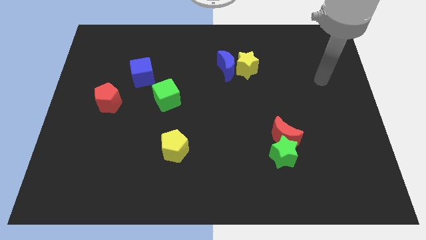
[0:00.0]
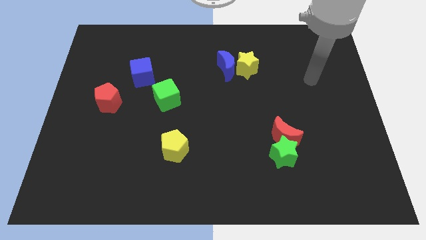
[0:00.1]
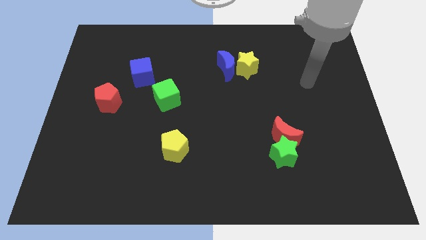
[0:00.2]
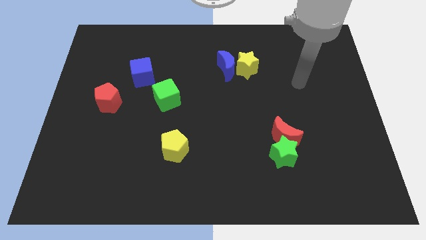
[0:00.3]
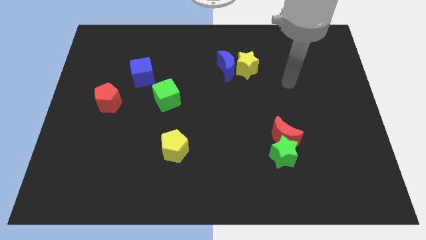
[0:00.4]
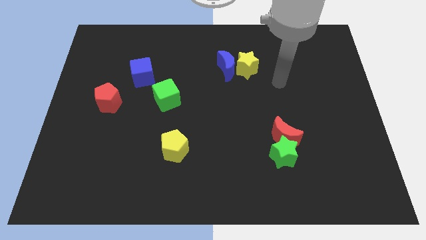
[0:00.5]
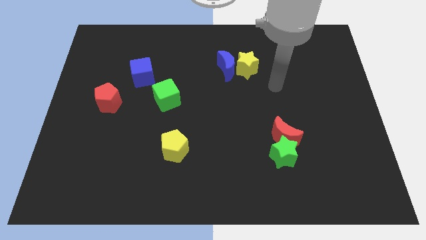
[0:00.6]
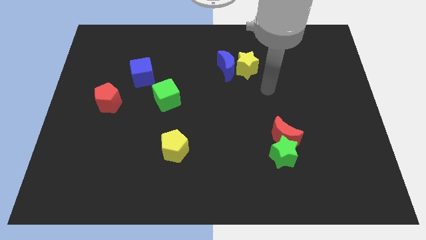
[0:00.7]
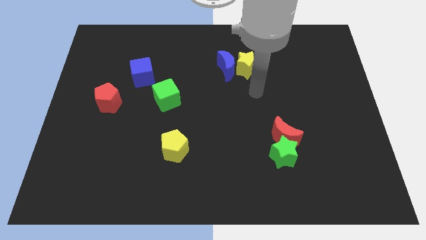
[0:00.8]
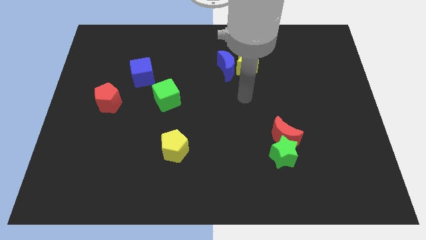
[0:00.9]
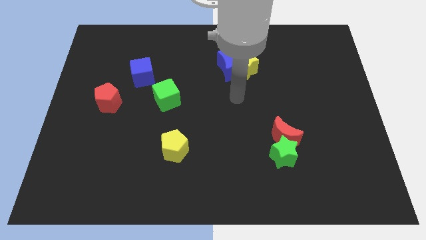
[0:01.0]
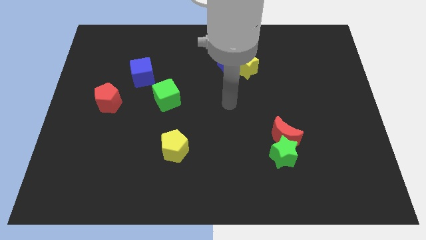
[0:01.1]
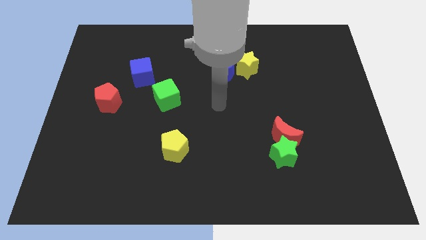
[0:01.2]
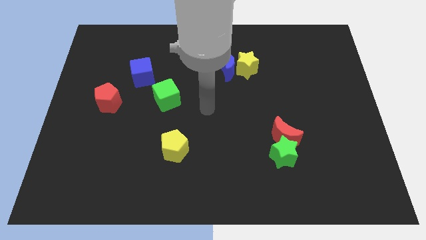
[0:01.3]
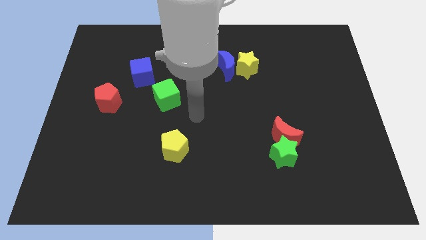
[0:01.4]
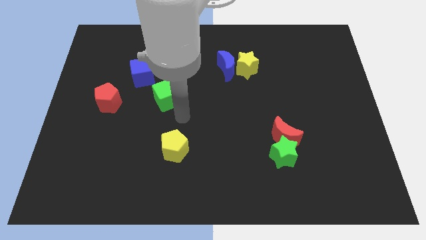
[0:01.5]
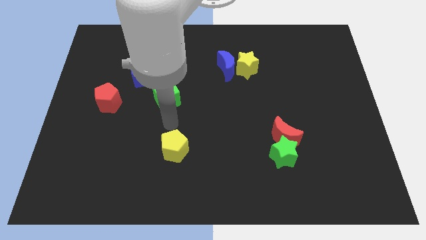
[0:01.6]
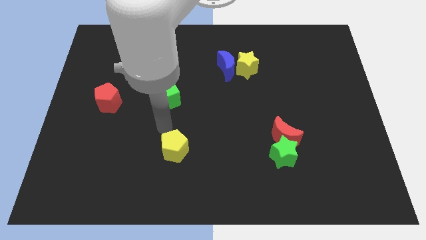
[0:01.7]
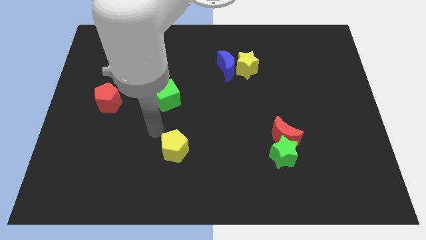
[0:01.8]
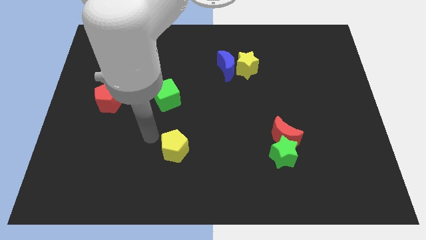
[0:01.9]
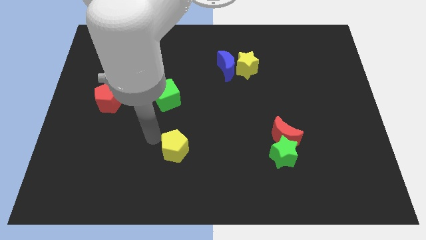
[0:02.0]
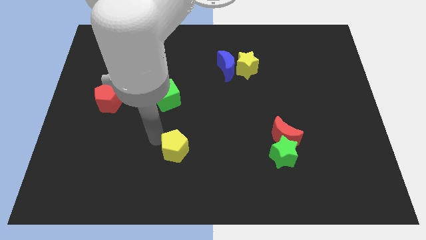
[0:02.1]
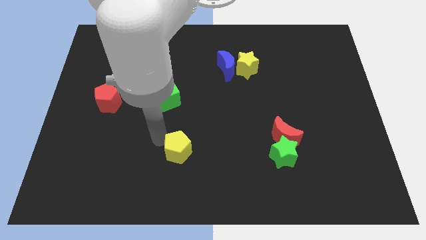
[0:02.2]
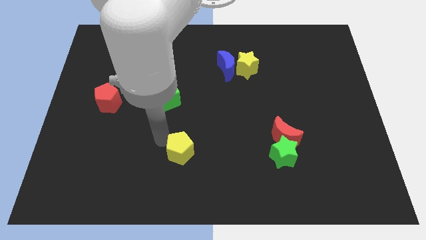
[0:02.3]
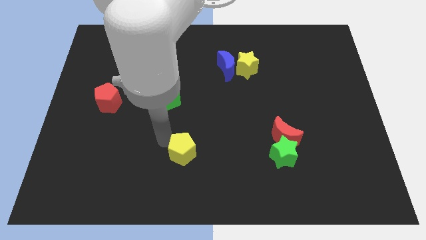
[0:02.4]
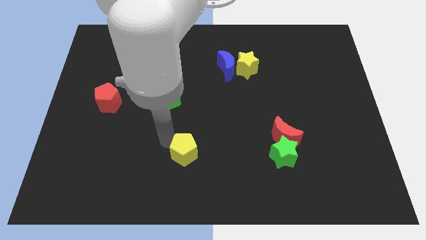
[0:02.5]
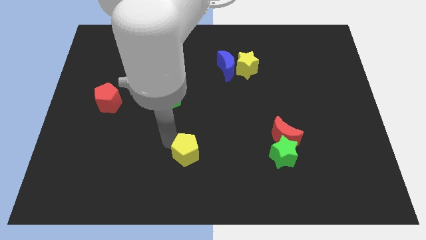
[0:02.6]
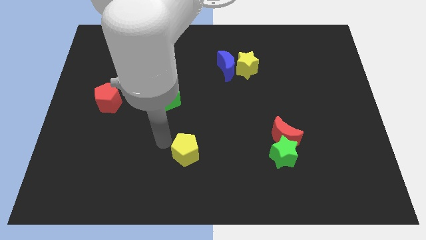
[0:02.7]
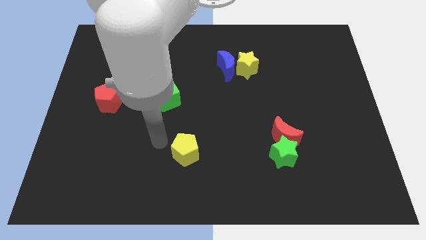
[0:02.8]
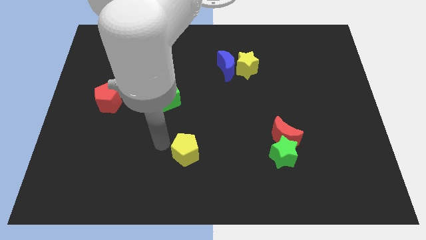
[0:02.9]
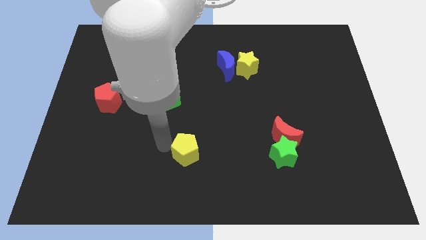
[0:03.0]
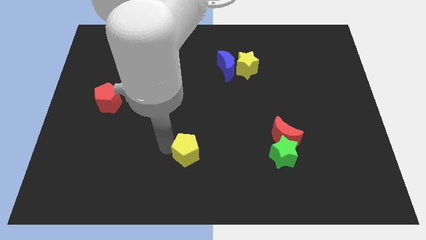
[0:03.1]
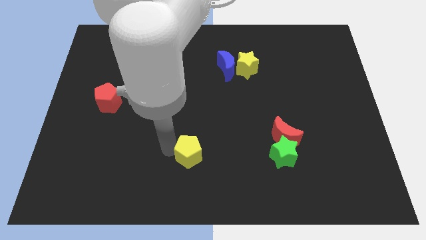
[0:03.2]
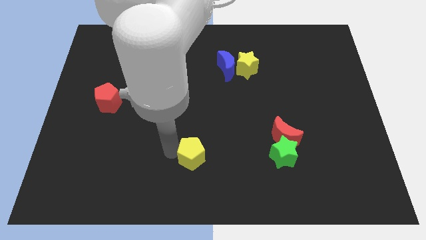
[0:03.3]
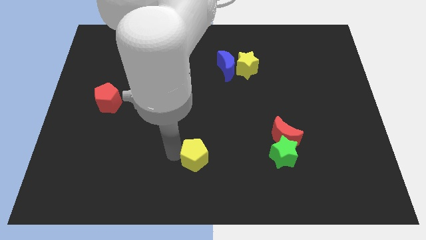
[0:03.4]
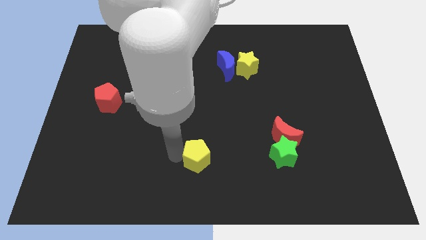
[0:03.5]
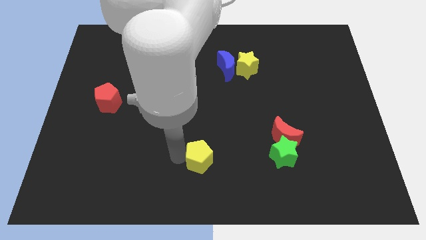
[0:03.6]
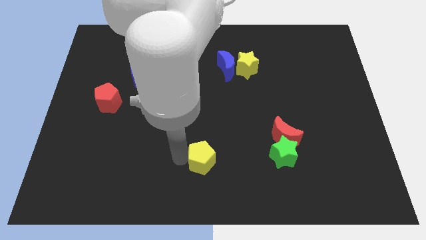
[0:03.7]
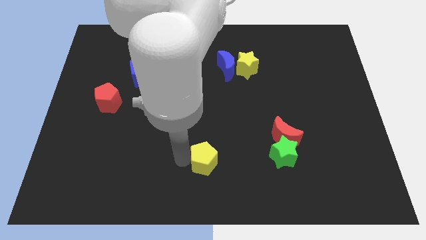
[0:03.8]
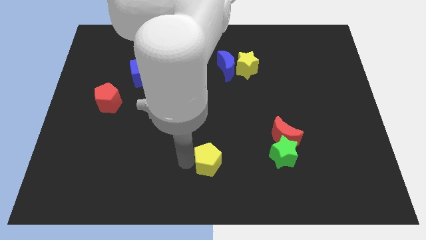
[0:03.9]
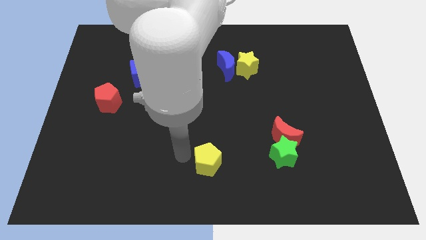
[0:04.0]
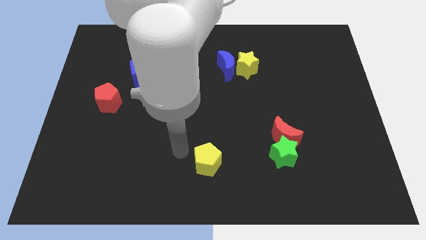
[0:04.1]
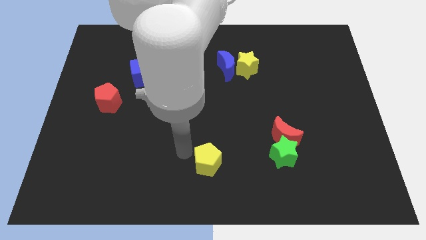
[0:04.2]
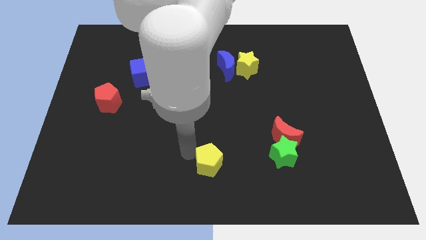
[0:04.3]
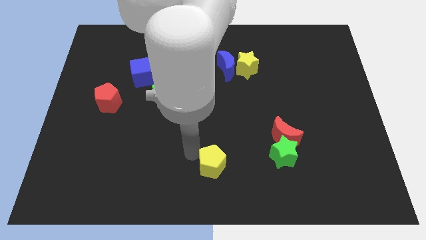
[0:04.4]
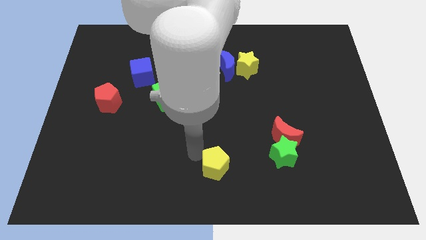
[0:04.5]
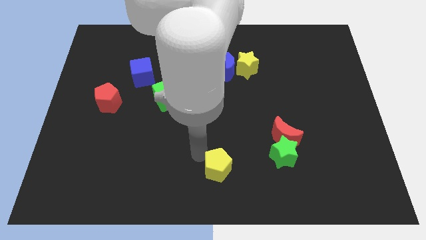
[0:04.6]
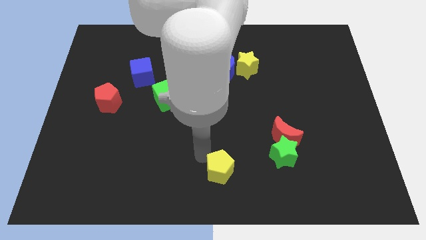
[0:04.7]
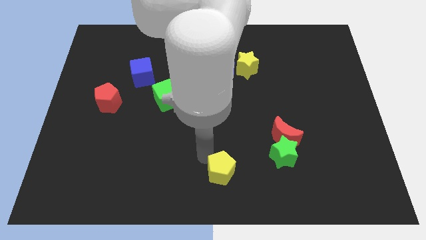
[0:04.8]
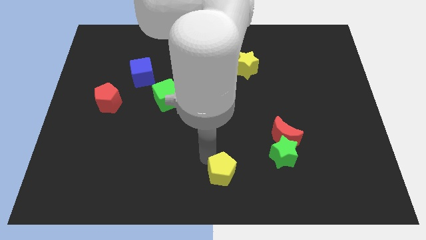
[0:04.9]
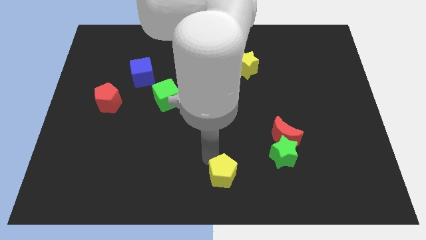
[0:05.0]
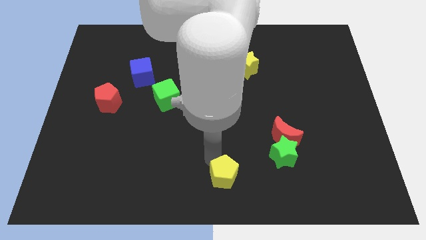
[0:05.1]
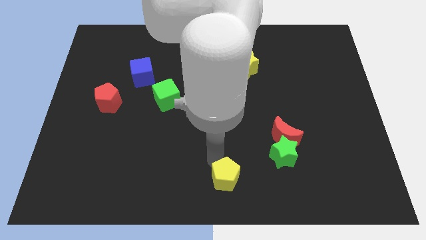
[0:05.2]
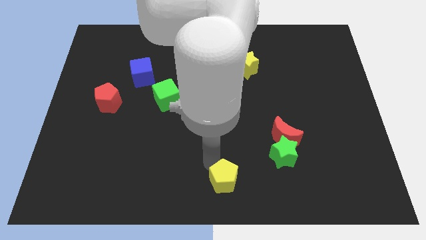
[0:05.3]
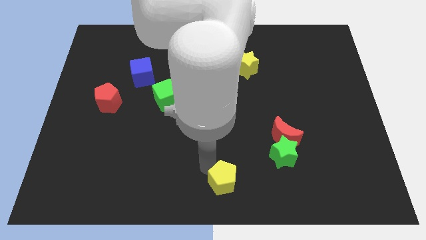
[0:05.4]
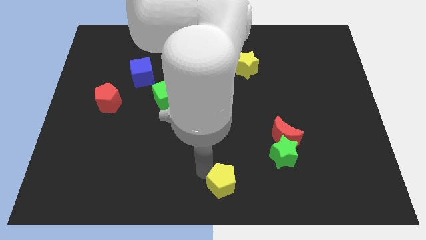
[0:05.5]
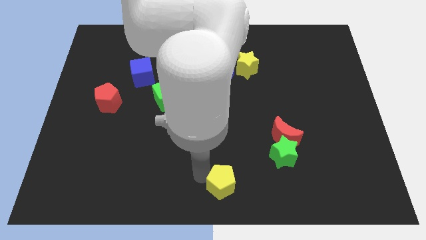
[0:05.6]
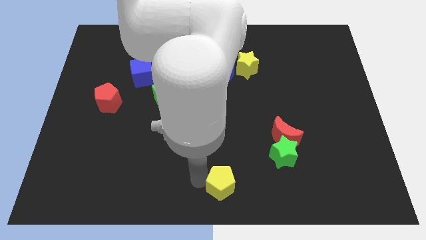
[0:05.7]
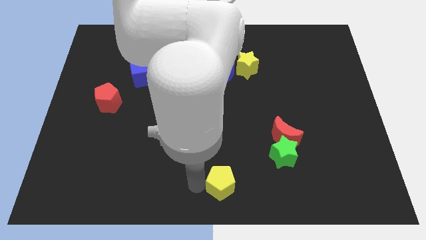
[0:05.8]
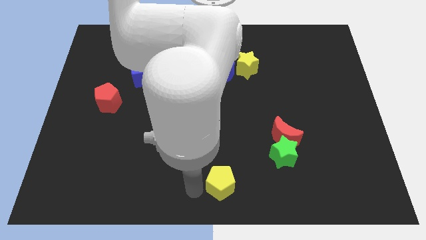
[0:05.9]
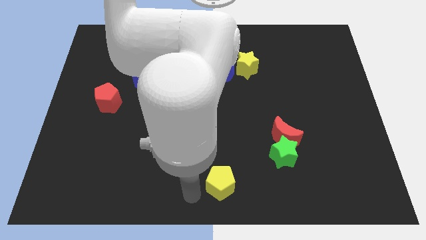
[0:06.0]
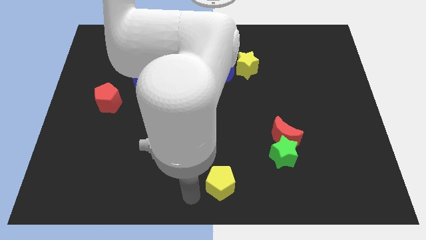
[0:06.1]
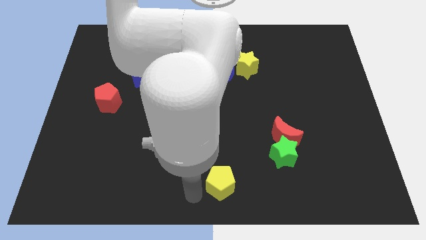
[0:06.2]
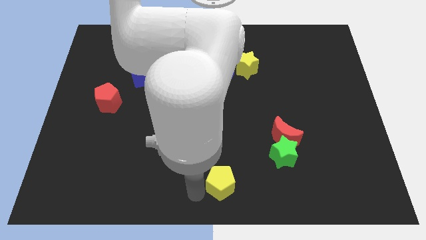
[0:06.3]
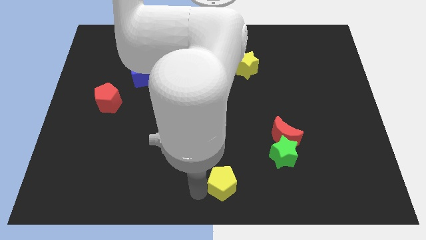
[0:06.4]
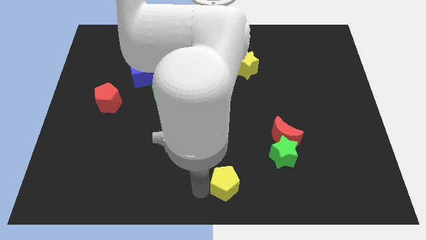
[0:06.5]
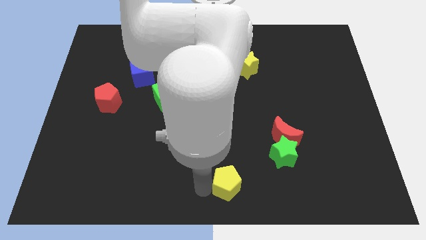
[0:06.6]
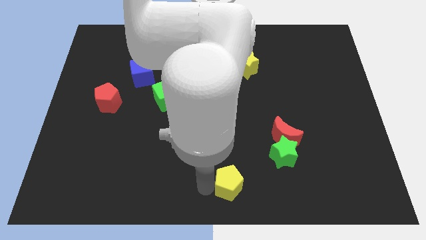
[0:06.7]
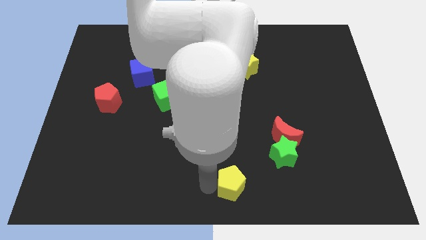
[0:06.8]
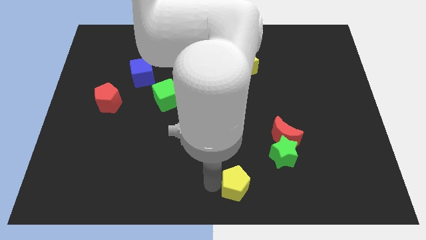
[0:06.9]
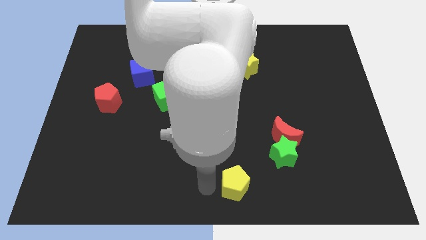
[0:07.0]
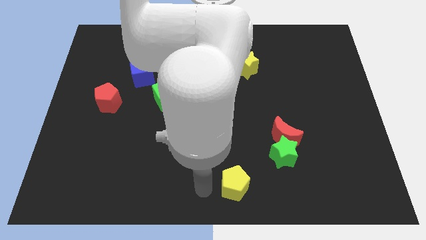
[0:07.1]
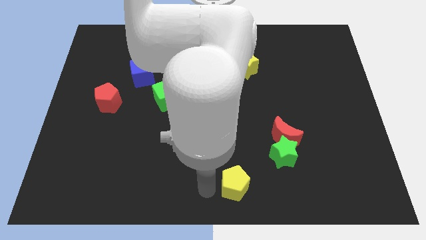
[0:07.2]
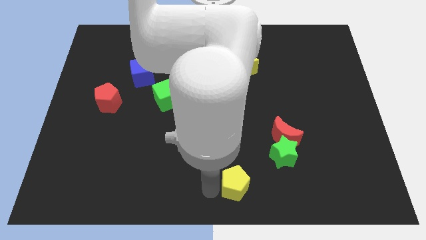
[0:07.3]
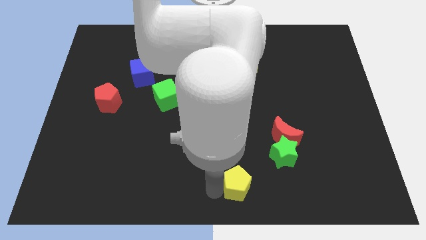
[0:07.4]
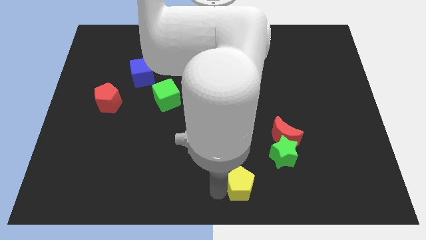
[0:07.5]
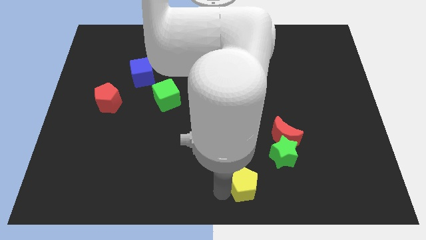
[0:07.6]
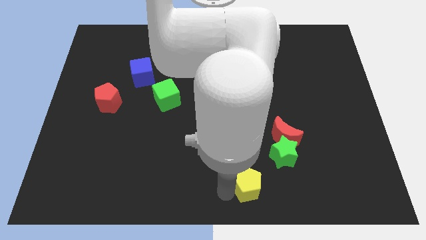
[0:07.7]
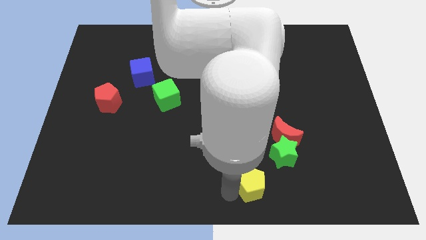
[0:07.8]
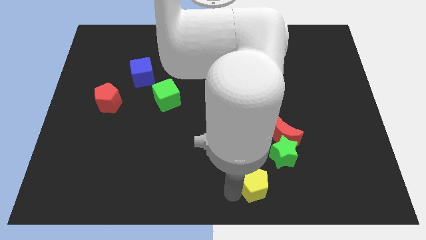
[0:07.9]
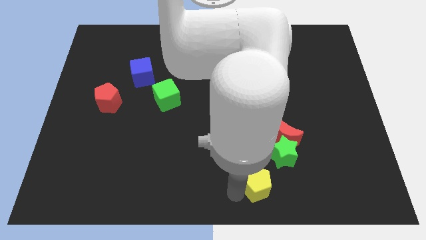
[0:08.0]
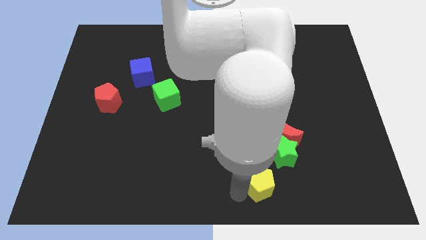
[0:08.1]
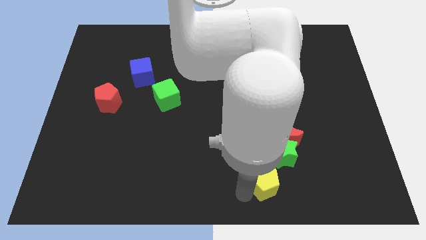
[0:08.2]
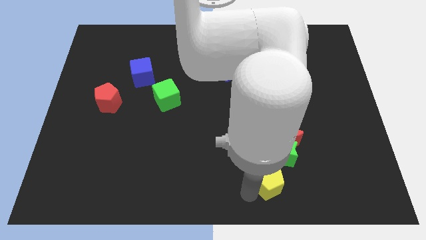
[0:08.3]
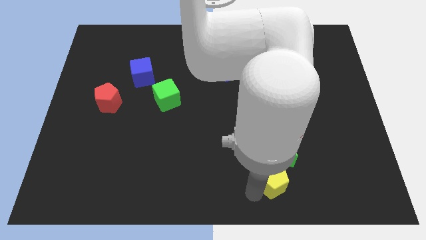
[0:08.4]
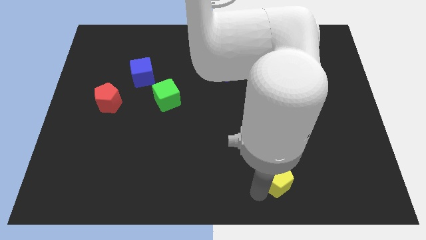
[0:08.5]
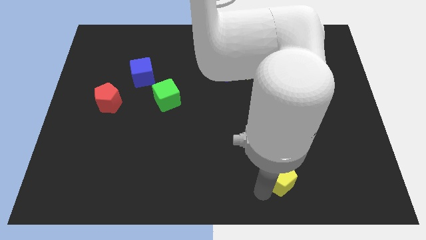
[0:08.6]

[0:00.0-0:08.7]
move the yellow pentagon right
